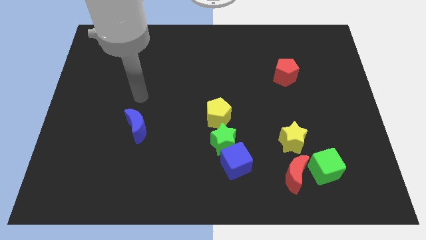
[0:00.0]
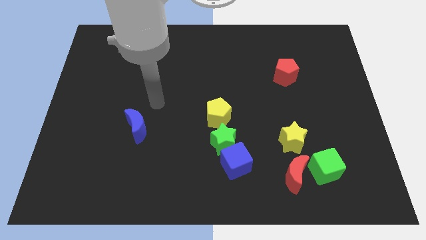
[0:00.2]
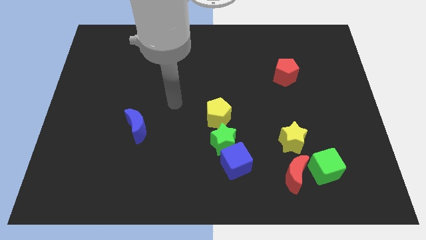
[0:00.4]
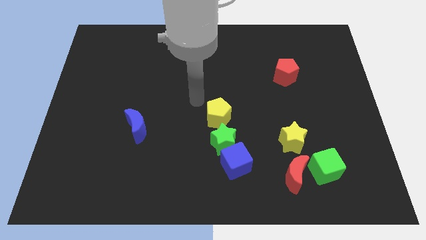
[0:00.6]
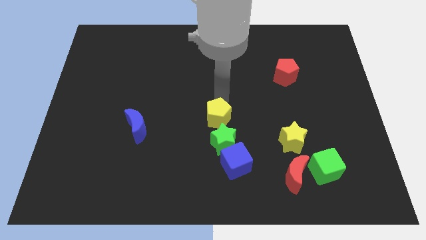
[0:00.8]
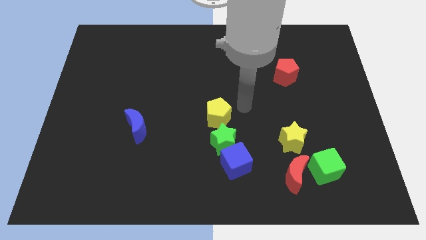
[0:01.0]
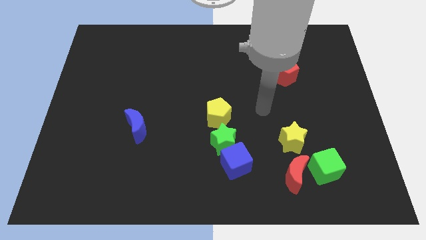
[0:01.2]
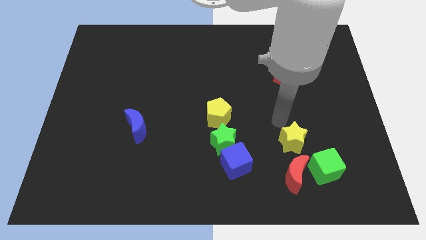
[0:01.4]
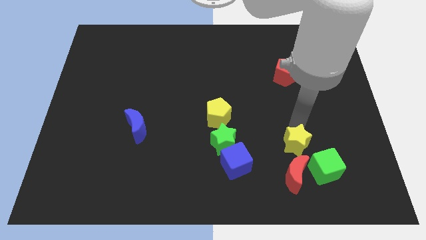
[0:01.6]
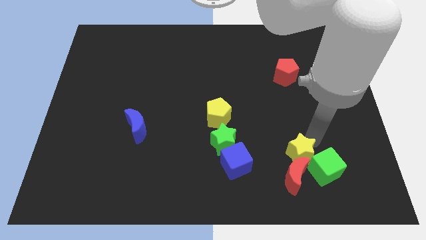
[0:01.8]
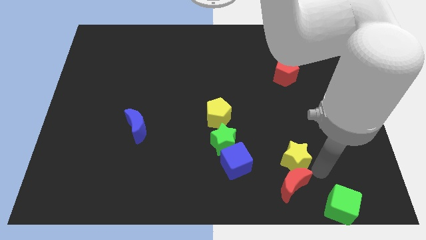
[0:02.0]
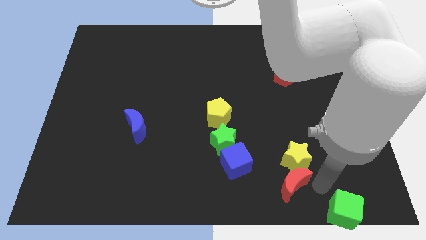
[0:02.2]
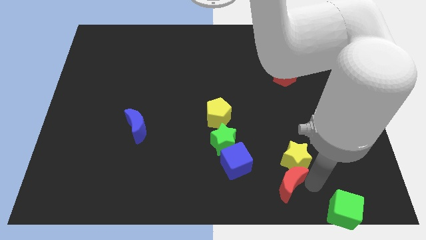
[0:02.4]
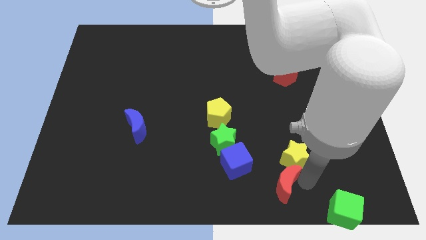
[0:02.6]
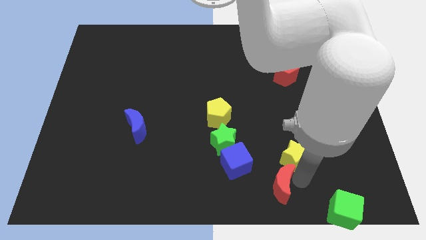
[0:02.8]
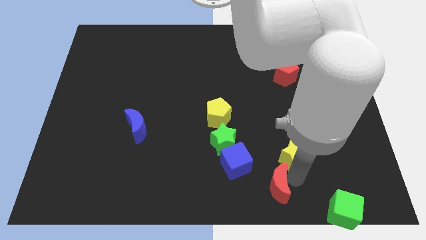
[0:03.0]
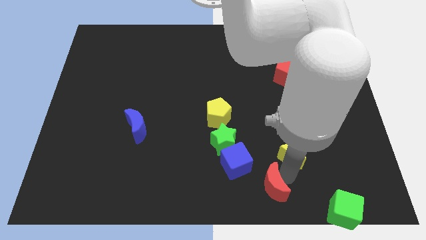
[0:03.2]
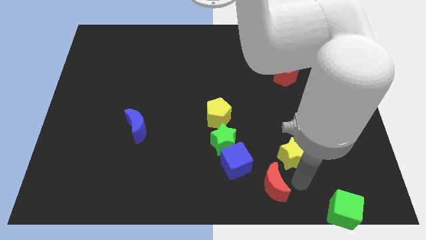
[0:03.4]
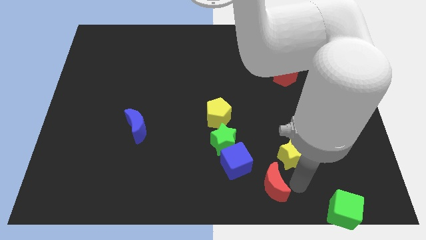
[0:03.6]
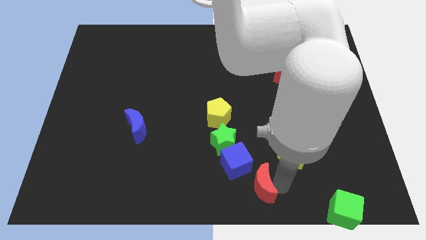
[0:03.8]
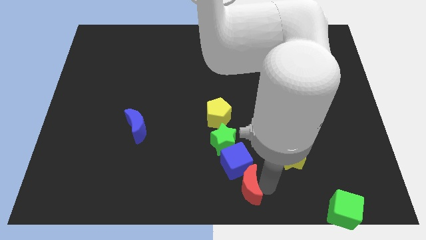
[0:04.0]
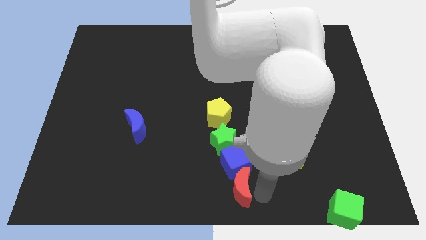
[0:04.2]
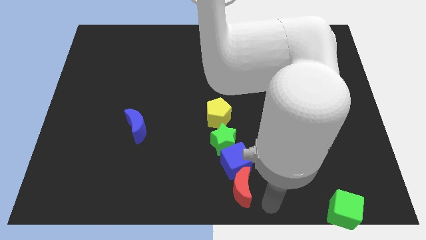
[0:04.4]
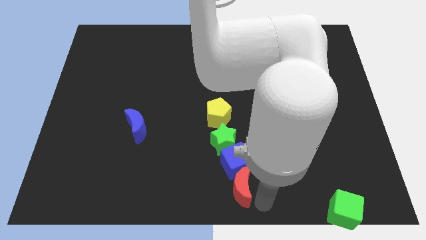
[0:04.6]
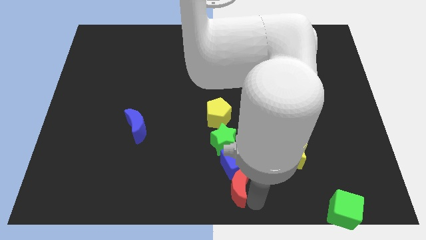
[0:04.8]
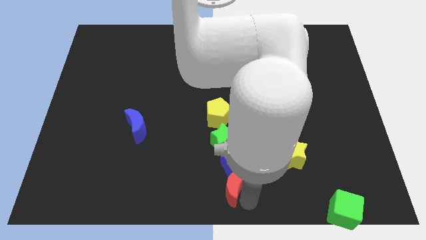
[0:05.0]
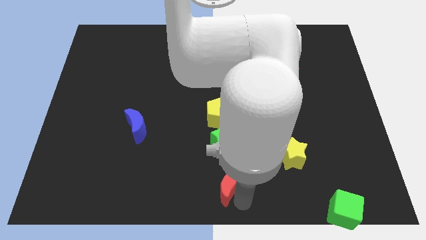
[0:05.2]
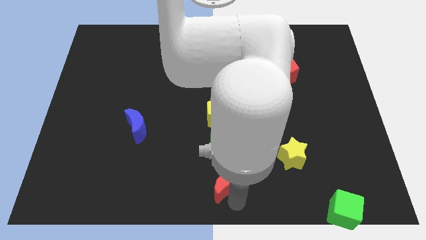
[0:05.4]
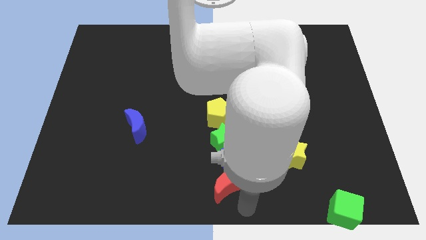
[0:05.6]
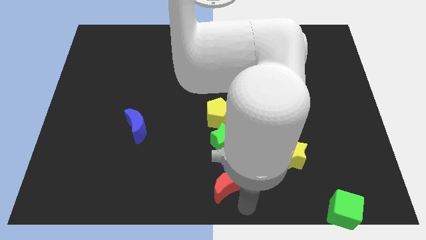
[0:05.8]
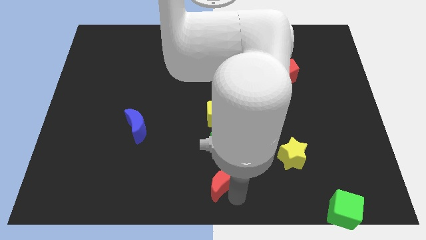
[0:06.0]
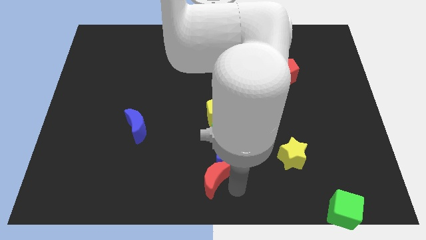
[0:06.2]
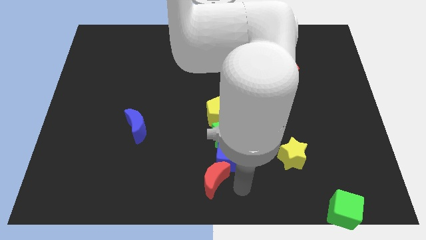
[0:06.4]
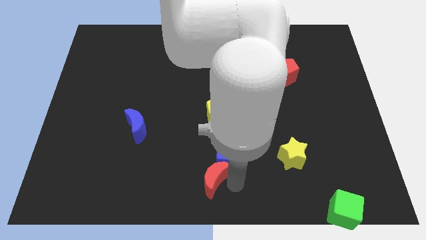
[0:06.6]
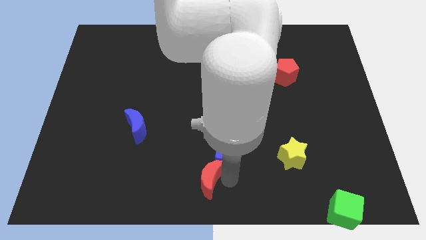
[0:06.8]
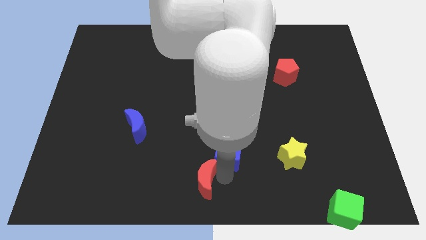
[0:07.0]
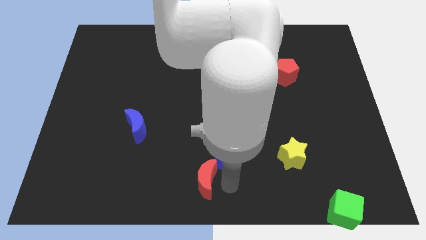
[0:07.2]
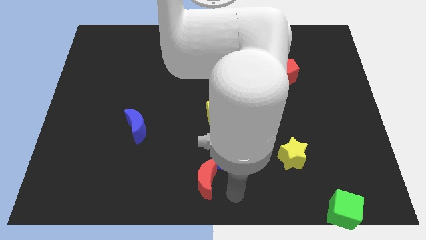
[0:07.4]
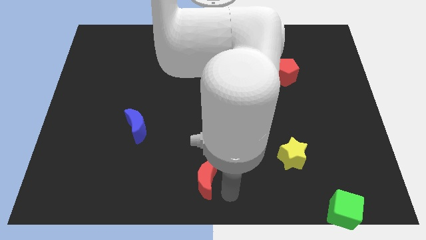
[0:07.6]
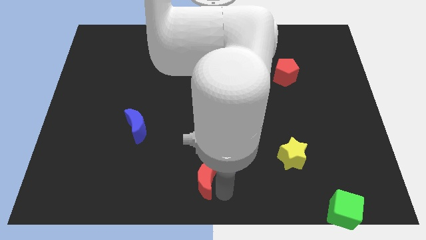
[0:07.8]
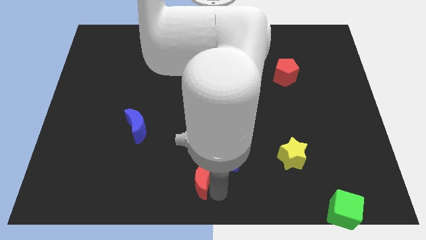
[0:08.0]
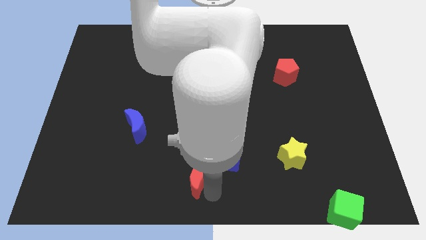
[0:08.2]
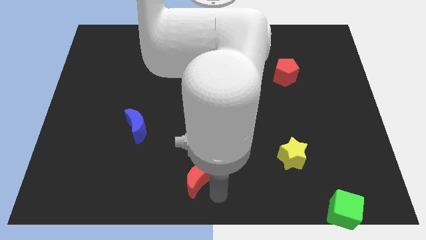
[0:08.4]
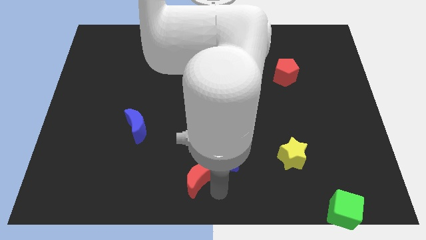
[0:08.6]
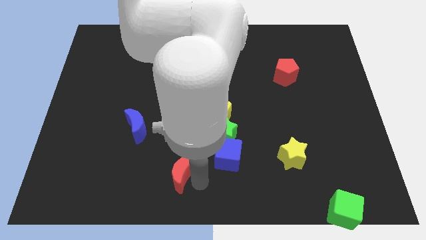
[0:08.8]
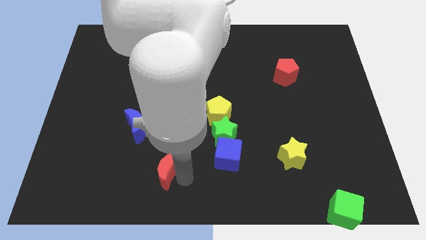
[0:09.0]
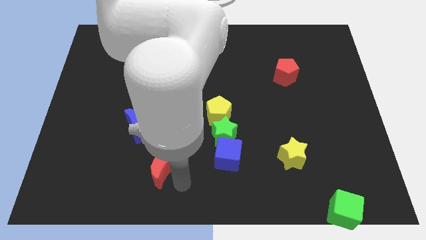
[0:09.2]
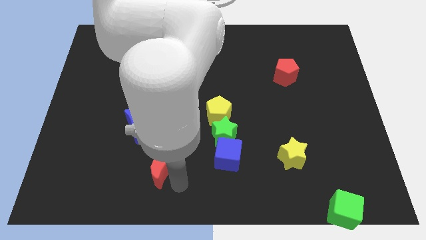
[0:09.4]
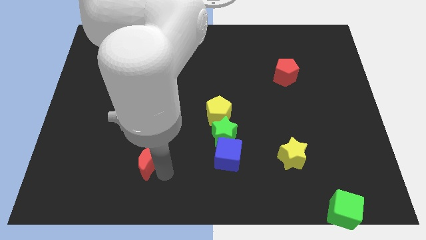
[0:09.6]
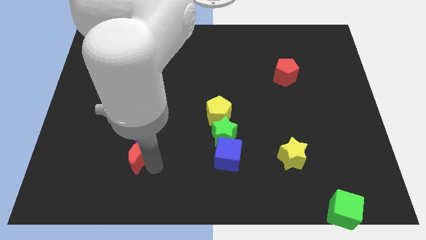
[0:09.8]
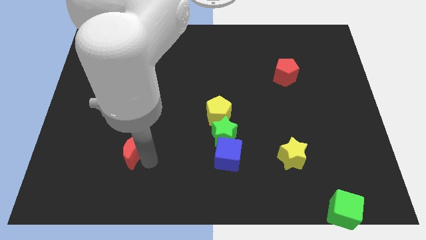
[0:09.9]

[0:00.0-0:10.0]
move the red moon to the bottom left side of the blue moon

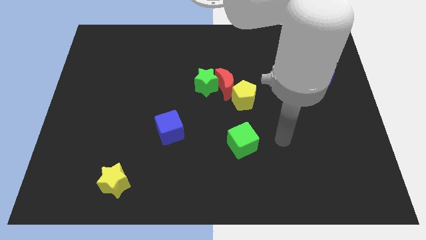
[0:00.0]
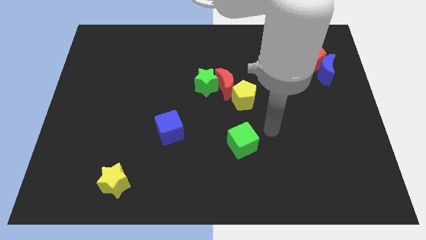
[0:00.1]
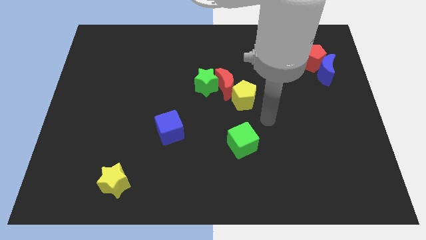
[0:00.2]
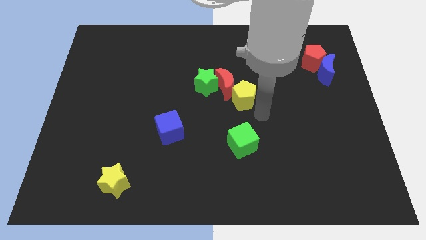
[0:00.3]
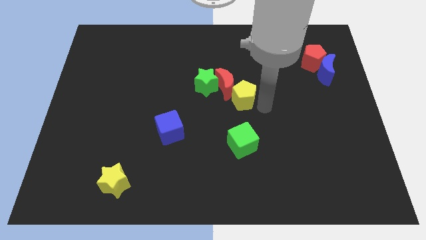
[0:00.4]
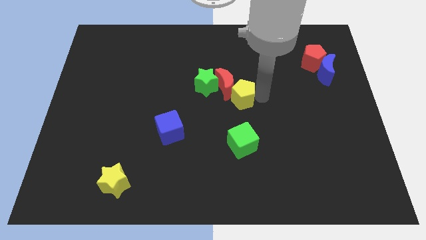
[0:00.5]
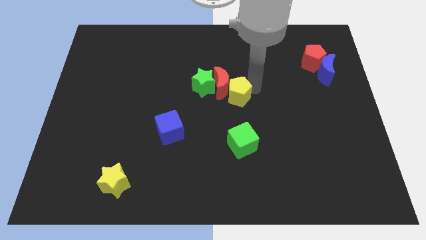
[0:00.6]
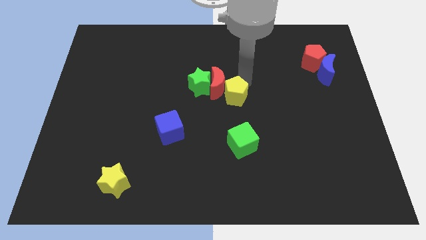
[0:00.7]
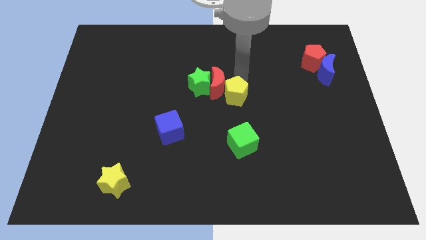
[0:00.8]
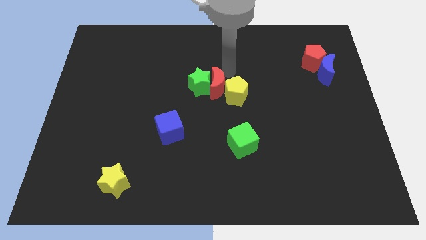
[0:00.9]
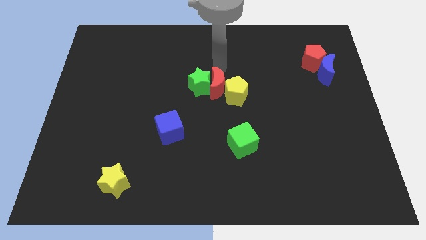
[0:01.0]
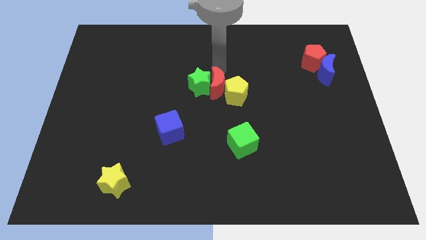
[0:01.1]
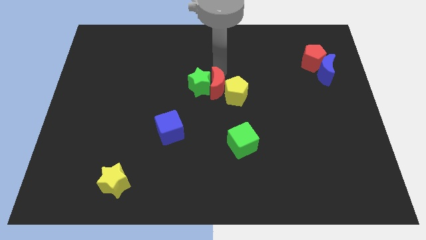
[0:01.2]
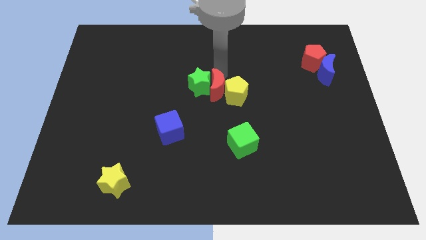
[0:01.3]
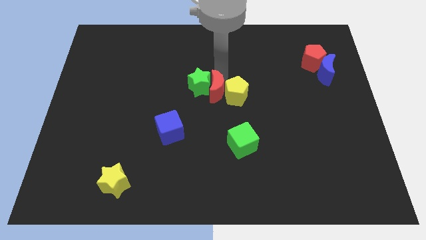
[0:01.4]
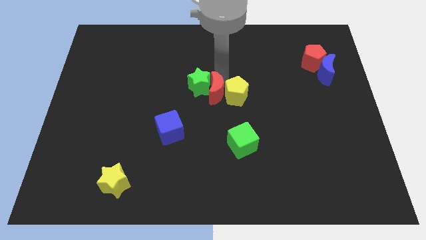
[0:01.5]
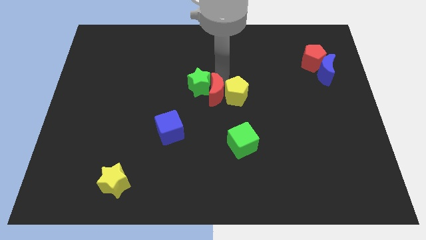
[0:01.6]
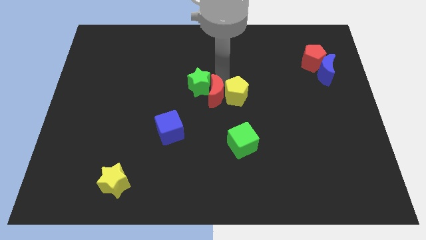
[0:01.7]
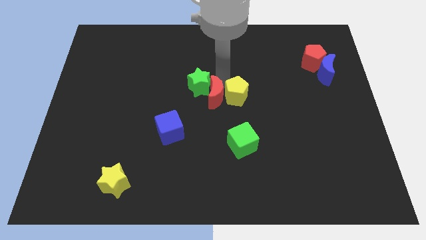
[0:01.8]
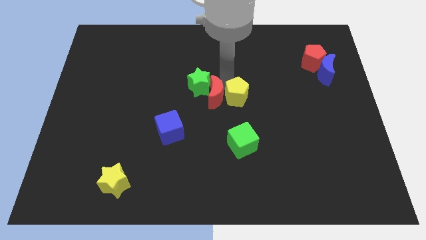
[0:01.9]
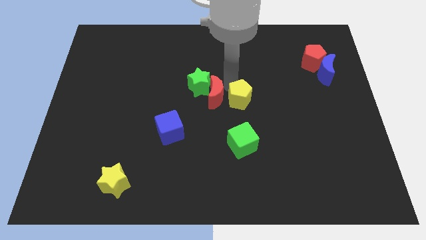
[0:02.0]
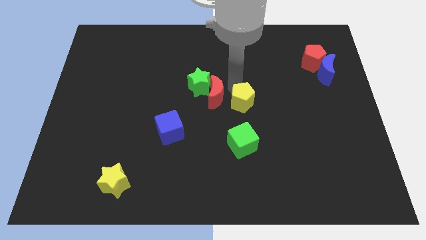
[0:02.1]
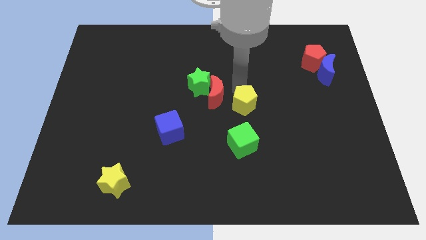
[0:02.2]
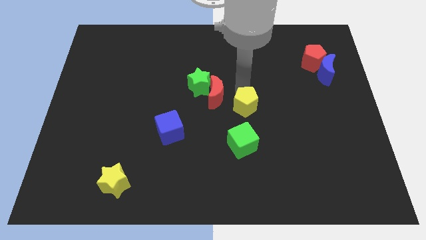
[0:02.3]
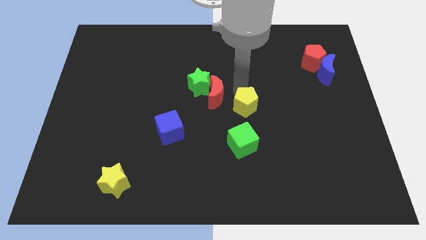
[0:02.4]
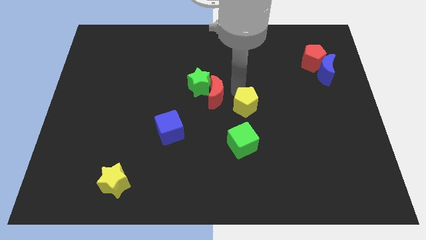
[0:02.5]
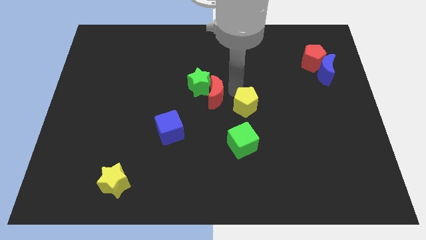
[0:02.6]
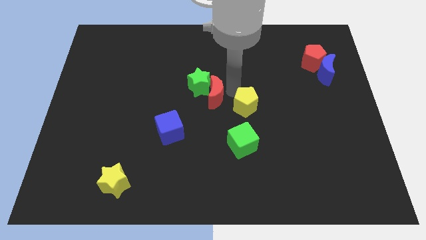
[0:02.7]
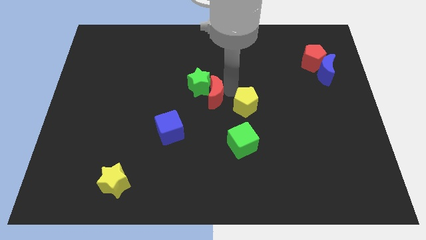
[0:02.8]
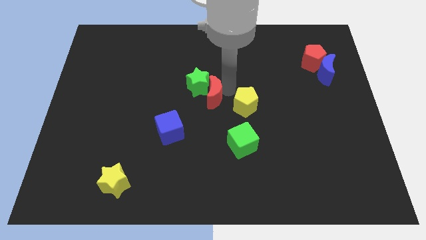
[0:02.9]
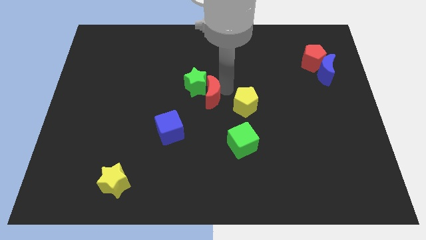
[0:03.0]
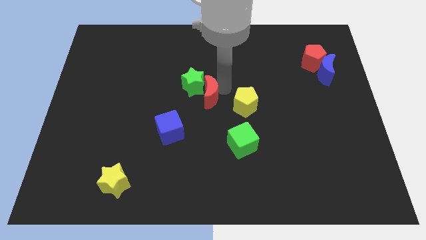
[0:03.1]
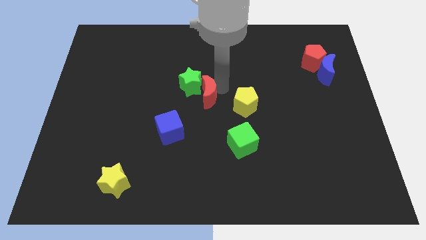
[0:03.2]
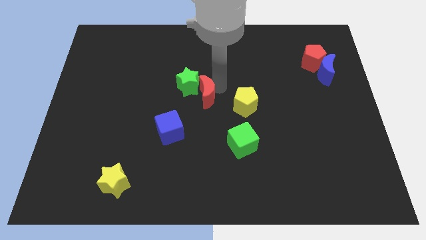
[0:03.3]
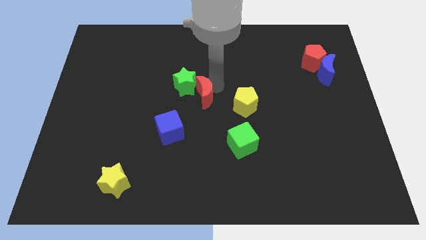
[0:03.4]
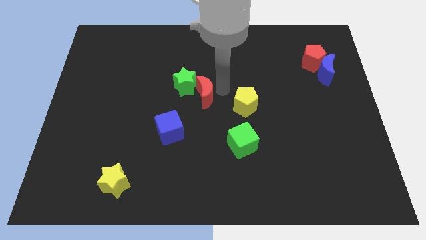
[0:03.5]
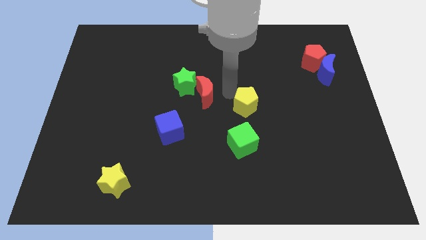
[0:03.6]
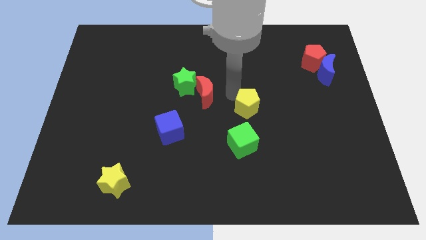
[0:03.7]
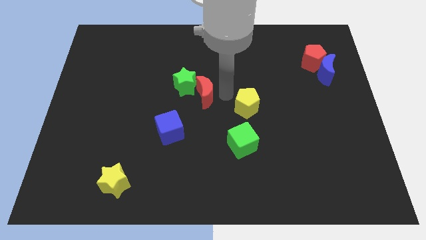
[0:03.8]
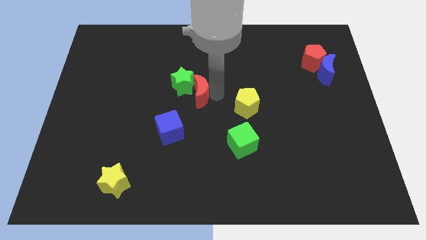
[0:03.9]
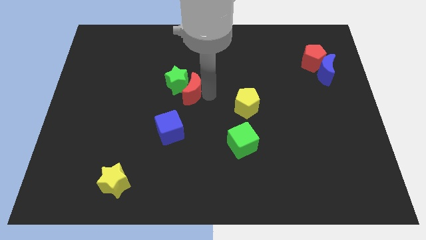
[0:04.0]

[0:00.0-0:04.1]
push the red moon above the blue cube
